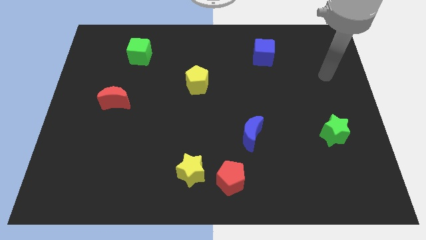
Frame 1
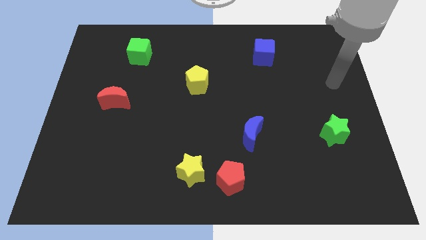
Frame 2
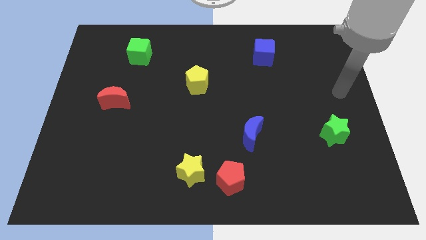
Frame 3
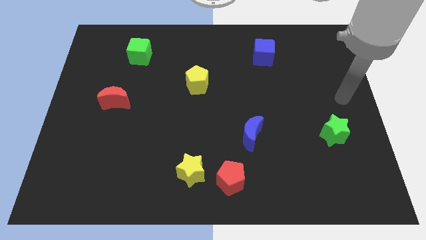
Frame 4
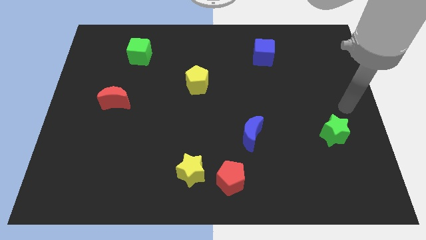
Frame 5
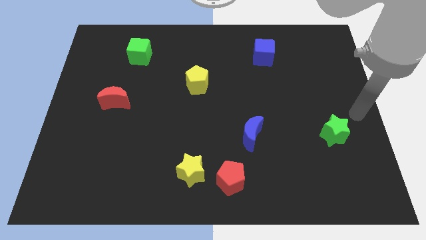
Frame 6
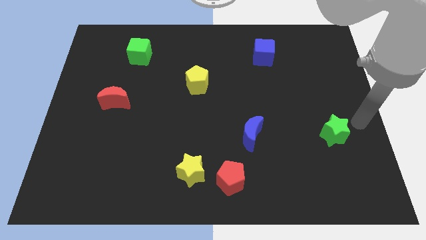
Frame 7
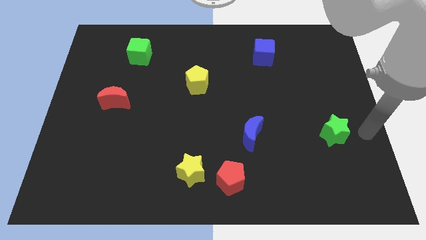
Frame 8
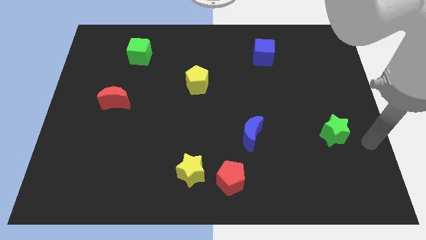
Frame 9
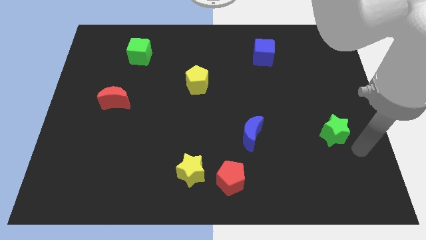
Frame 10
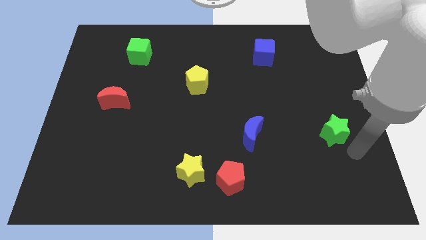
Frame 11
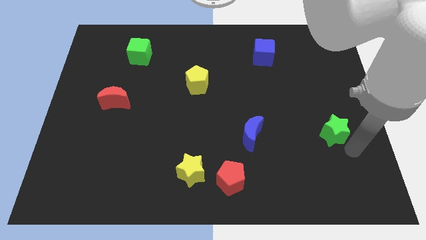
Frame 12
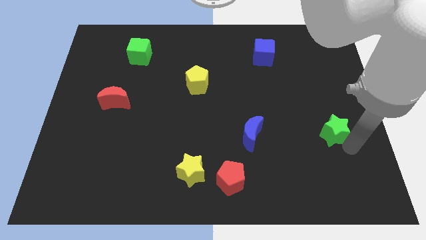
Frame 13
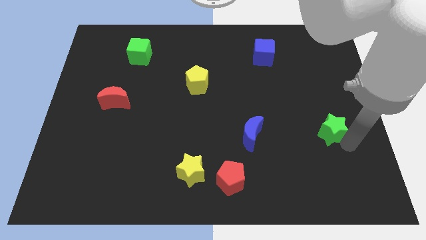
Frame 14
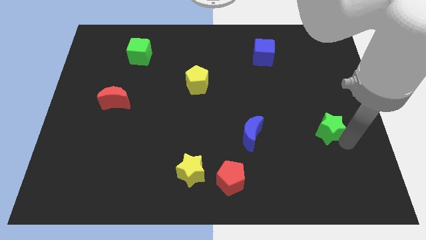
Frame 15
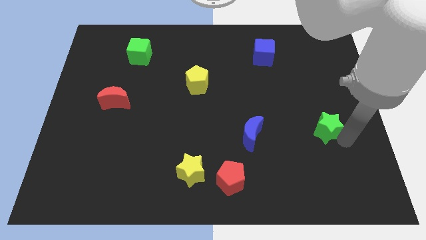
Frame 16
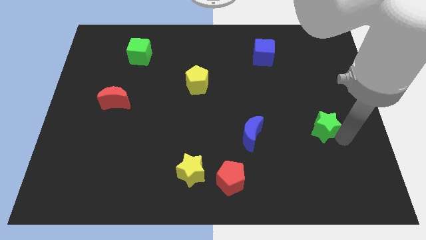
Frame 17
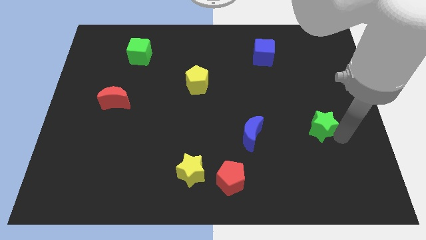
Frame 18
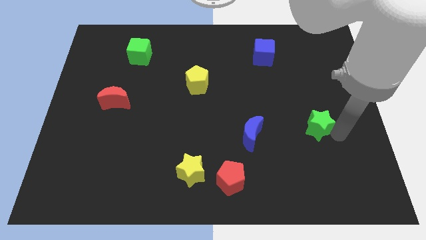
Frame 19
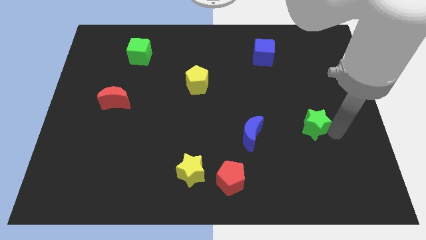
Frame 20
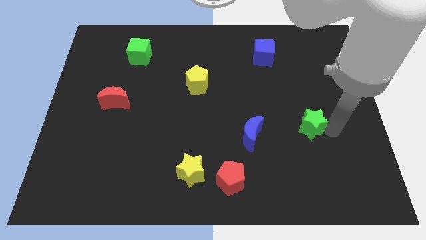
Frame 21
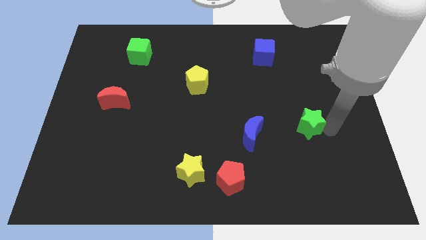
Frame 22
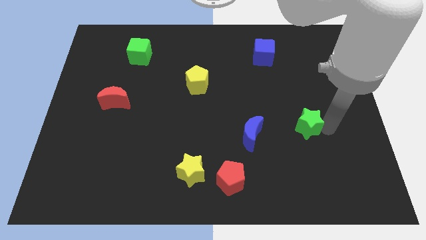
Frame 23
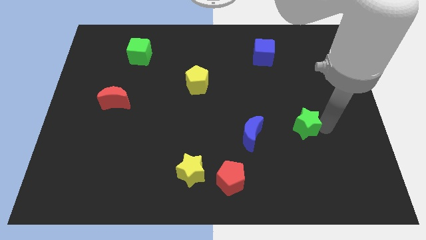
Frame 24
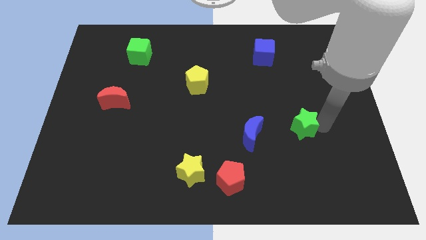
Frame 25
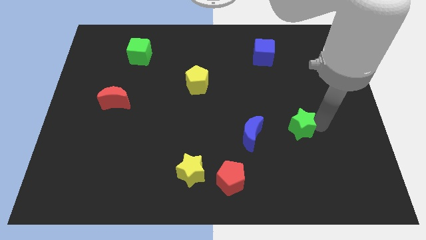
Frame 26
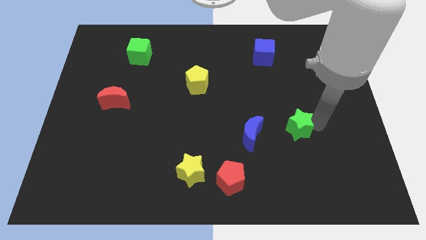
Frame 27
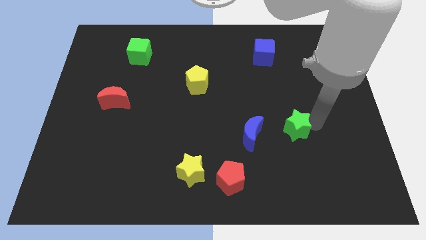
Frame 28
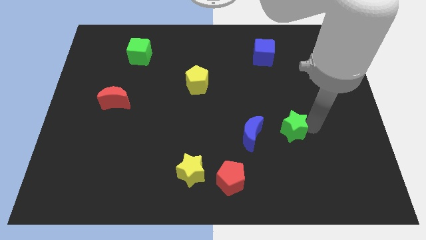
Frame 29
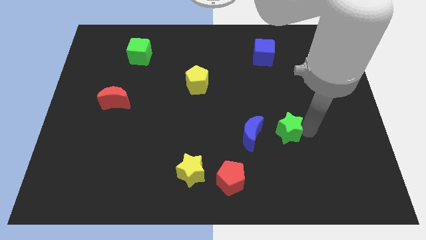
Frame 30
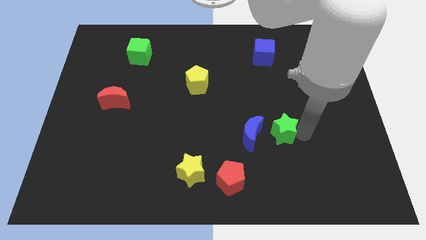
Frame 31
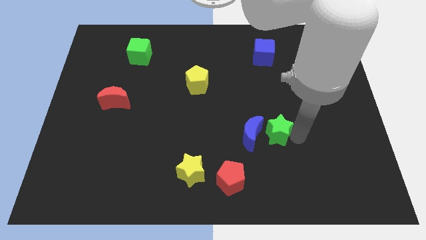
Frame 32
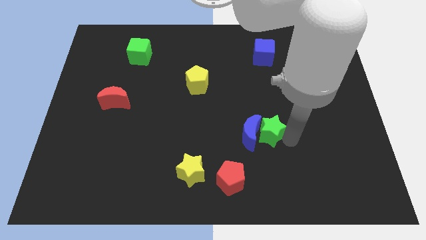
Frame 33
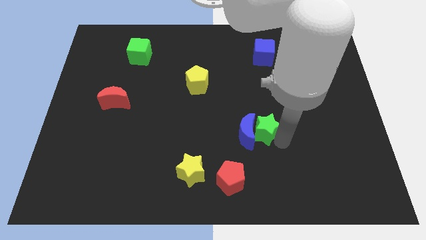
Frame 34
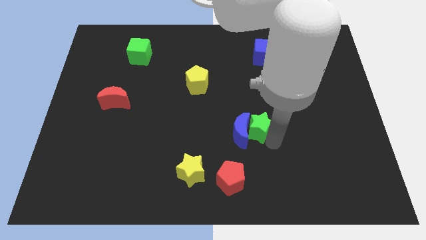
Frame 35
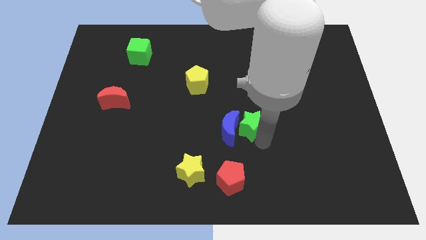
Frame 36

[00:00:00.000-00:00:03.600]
slightly push the green star up and to the left diagonally

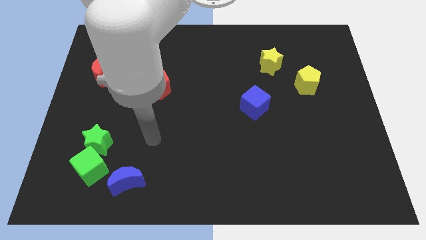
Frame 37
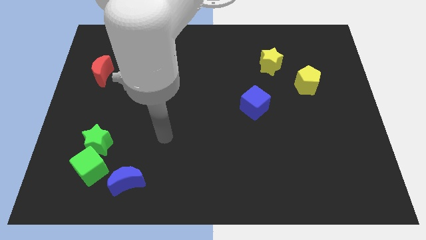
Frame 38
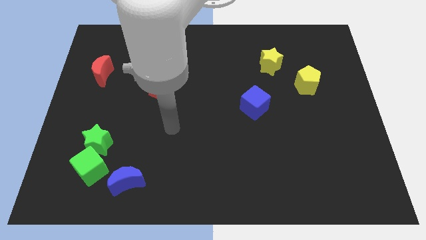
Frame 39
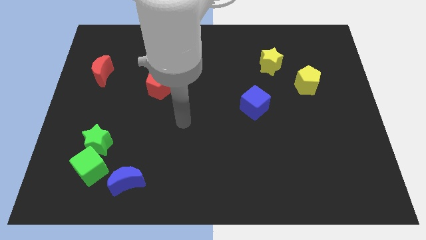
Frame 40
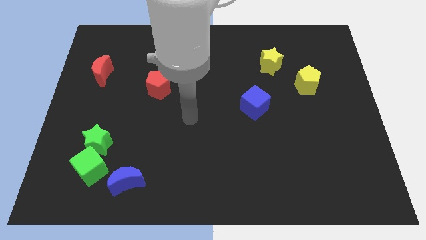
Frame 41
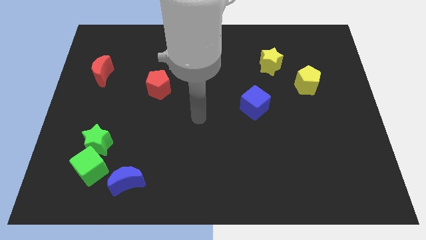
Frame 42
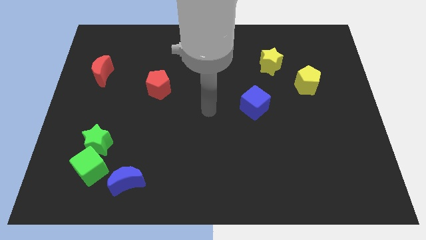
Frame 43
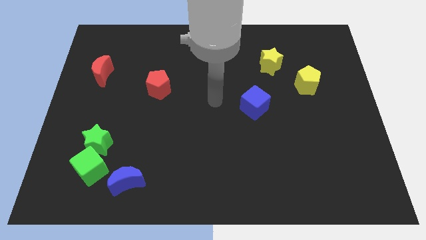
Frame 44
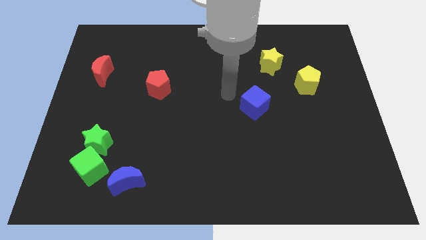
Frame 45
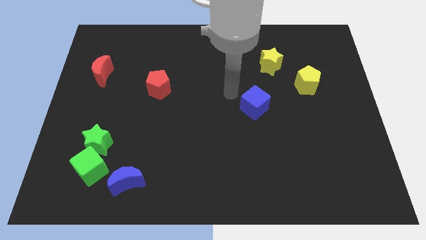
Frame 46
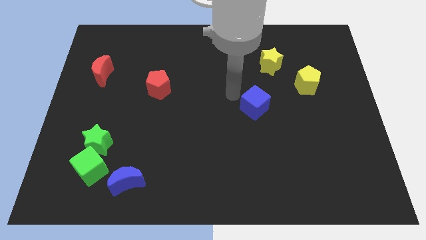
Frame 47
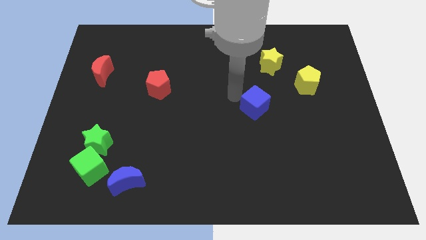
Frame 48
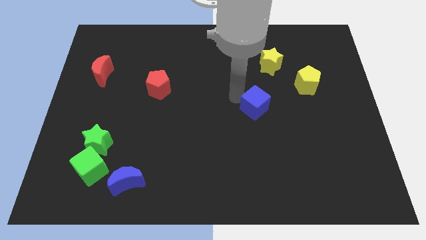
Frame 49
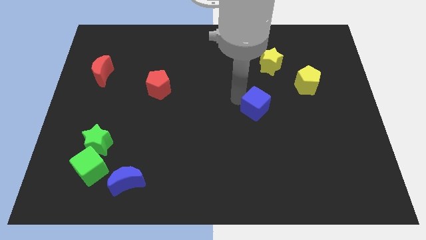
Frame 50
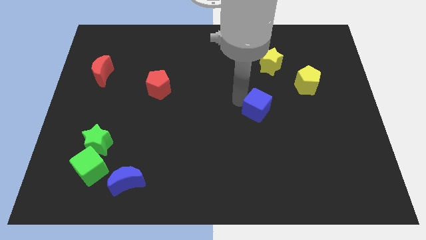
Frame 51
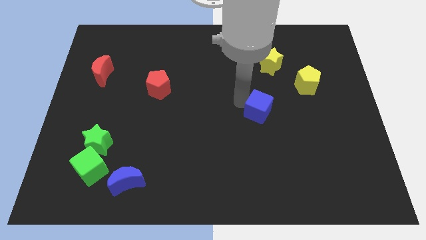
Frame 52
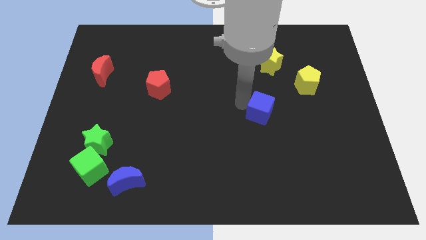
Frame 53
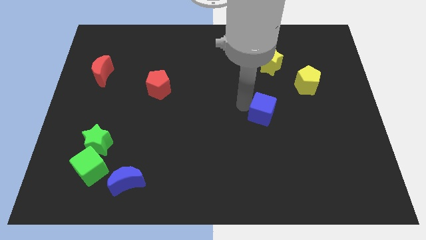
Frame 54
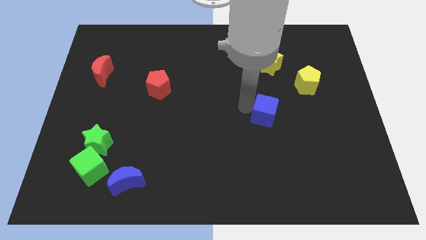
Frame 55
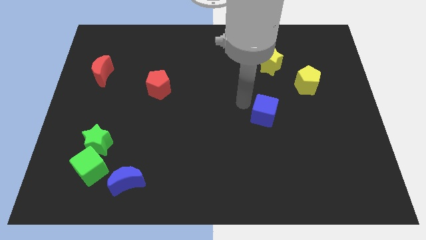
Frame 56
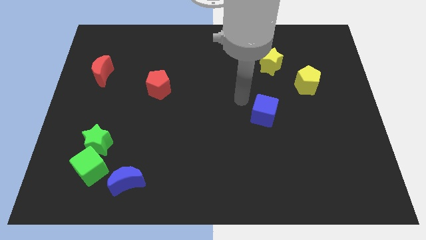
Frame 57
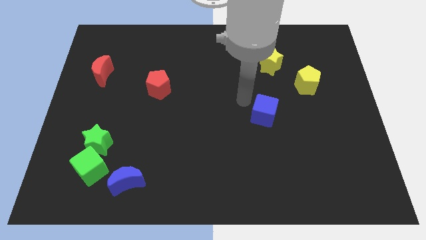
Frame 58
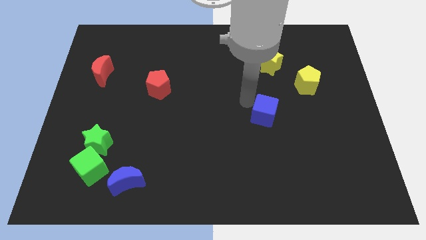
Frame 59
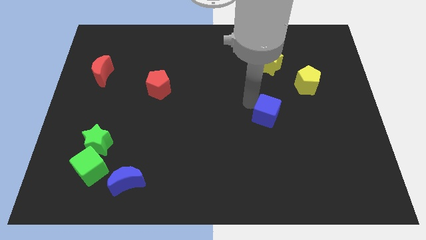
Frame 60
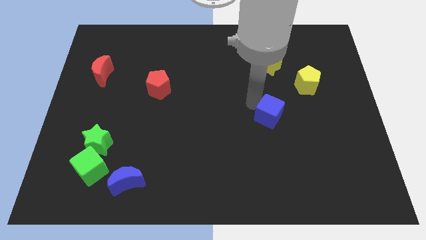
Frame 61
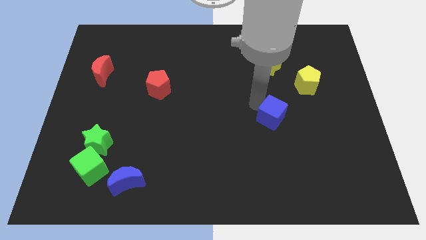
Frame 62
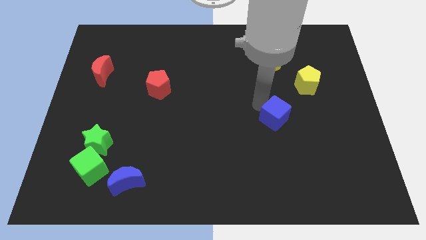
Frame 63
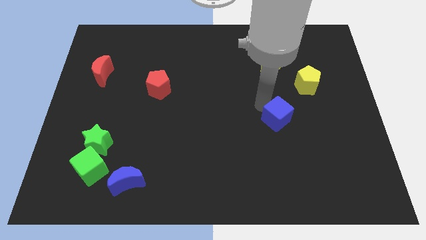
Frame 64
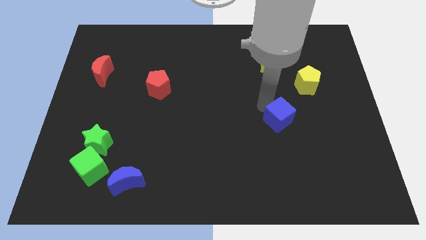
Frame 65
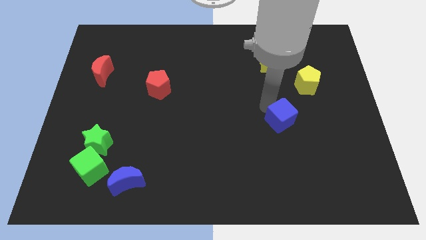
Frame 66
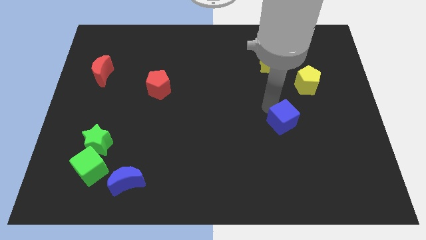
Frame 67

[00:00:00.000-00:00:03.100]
move the blue cube downwards and to the right a little bit

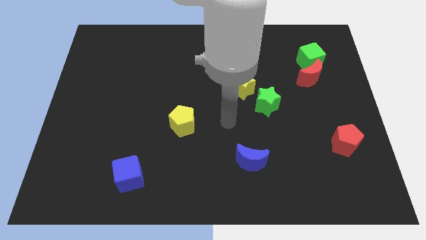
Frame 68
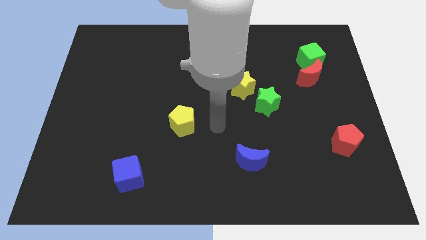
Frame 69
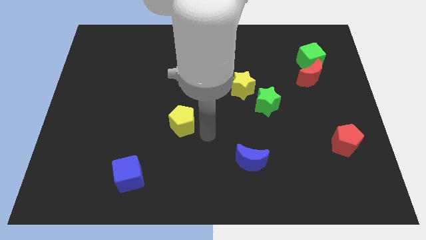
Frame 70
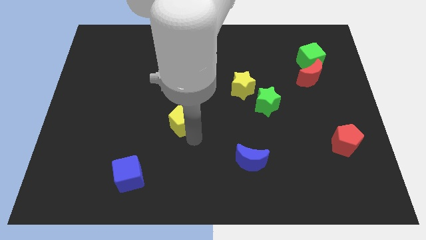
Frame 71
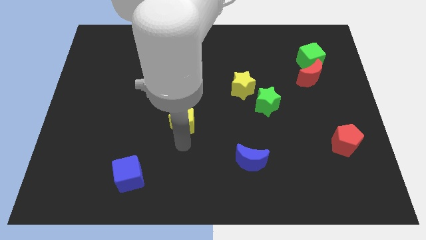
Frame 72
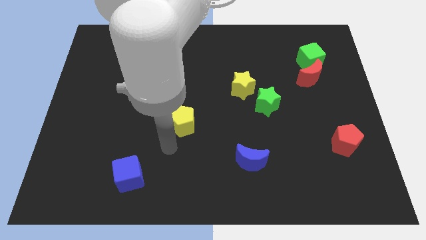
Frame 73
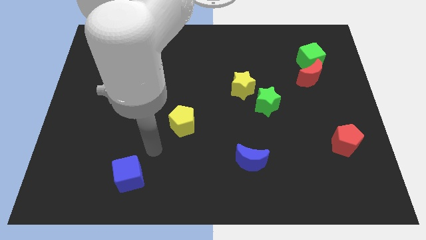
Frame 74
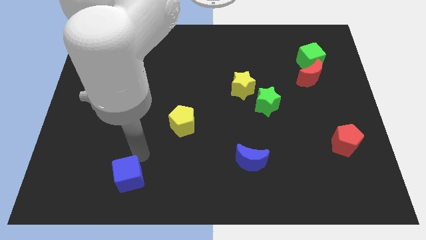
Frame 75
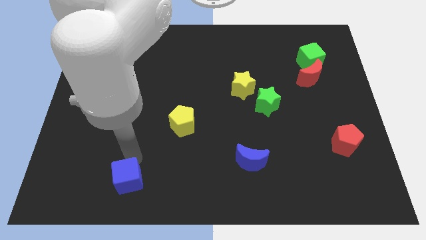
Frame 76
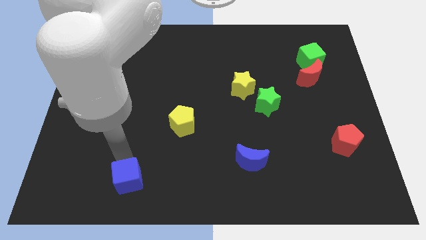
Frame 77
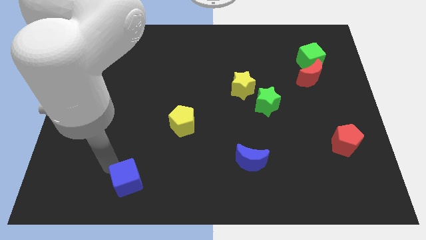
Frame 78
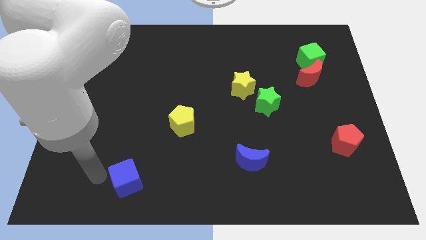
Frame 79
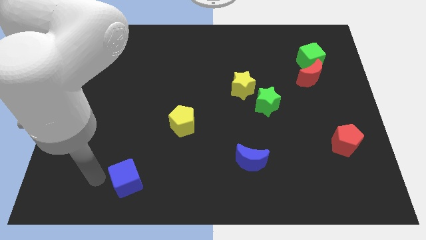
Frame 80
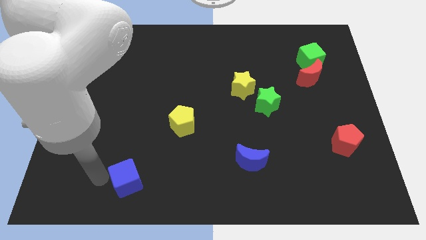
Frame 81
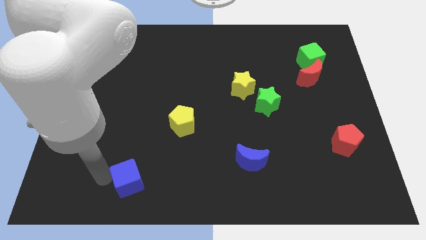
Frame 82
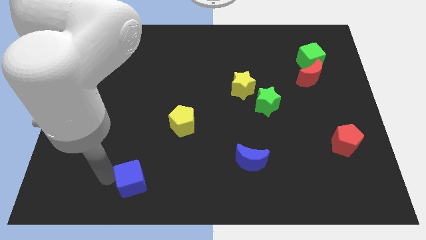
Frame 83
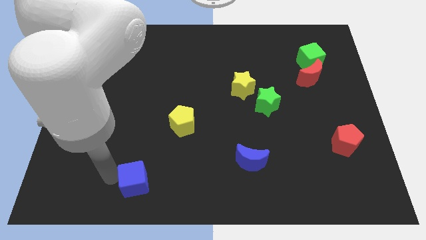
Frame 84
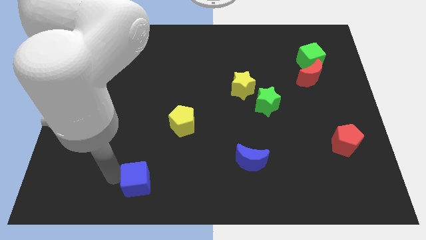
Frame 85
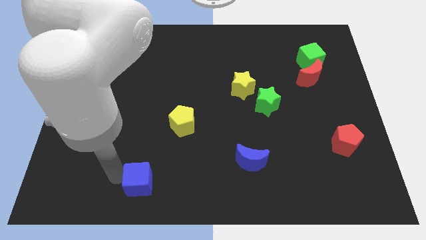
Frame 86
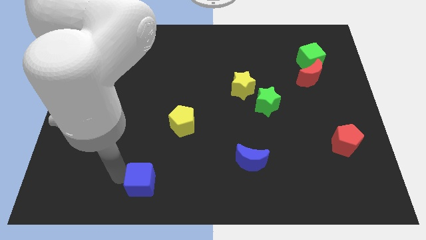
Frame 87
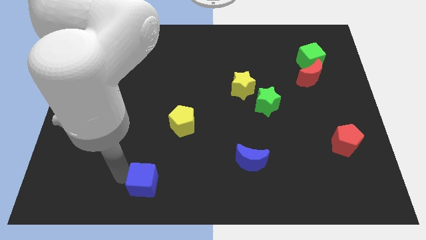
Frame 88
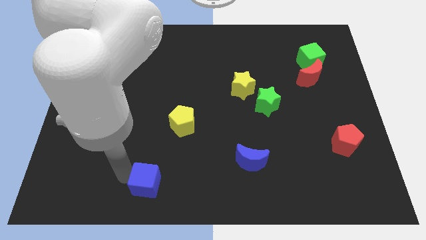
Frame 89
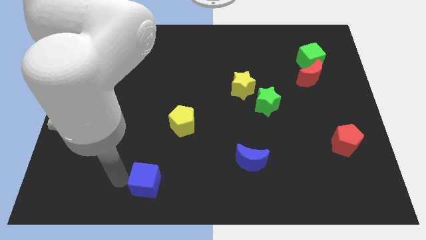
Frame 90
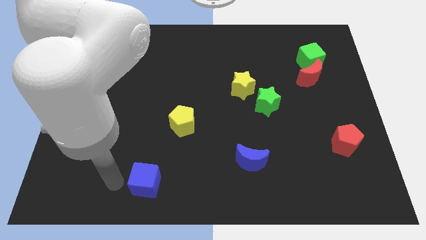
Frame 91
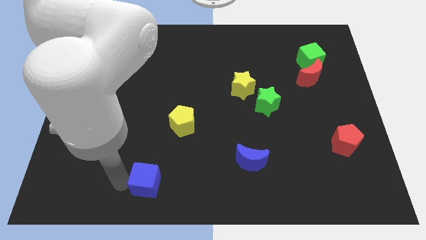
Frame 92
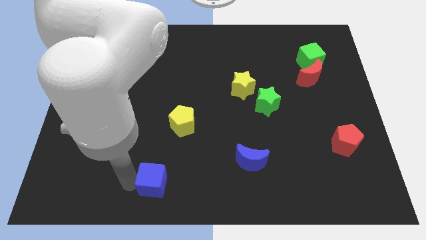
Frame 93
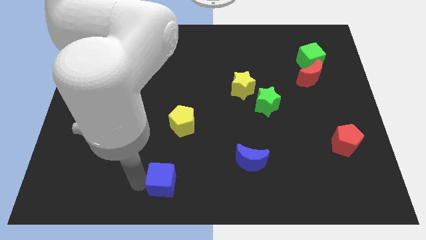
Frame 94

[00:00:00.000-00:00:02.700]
slightly slide the blue cube right
